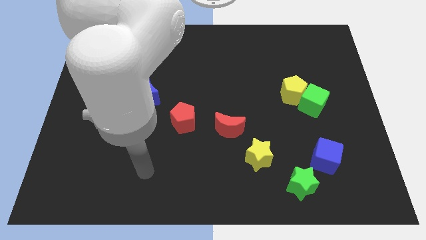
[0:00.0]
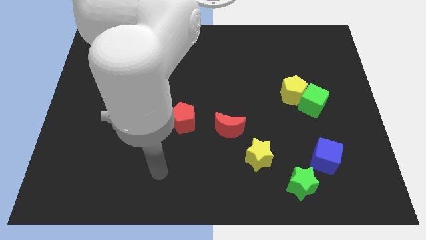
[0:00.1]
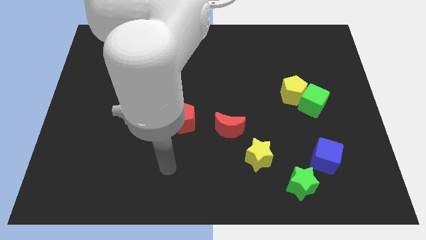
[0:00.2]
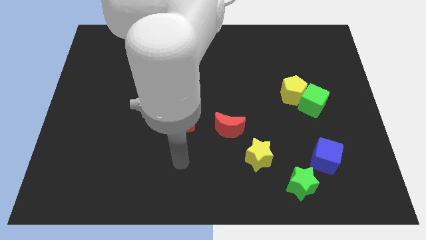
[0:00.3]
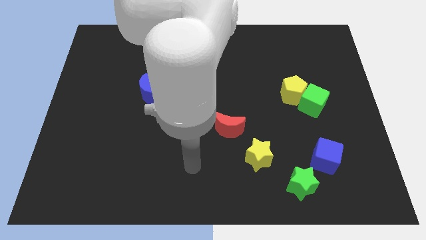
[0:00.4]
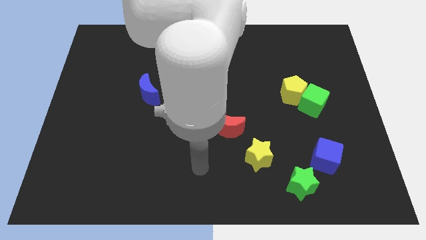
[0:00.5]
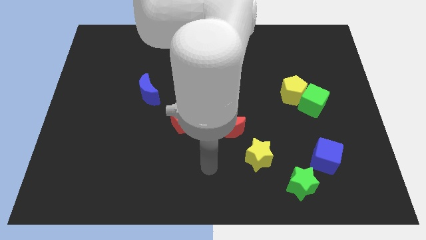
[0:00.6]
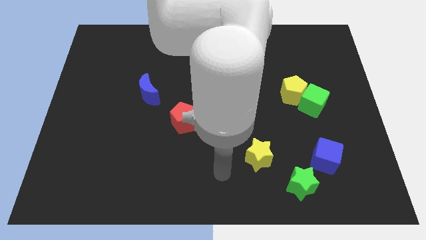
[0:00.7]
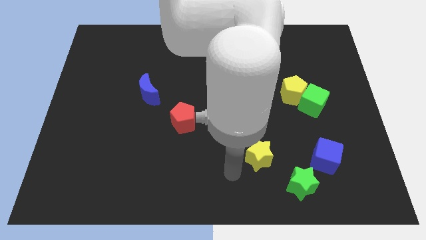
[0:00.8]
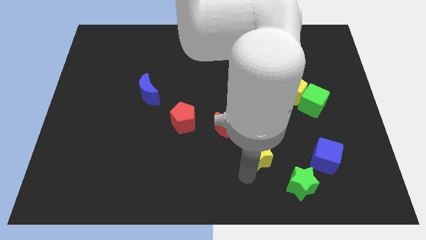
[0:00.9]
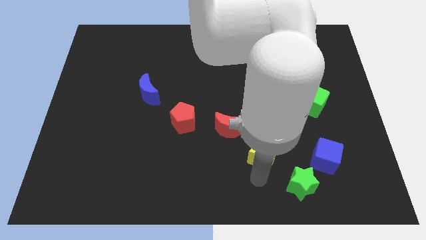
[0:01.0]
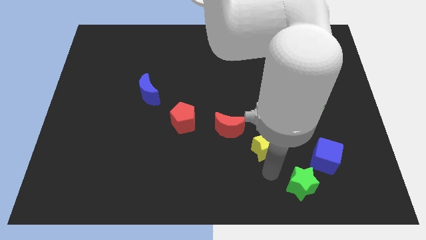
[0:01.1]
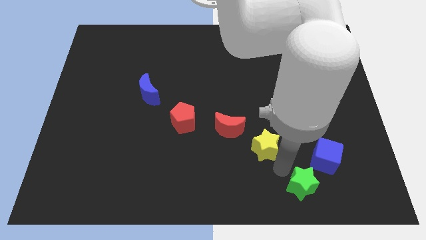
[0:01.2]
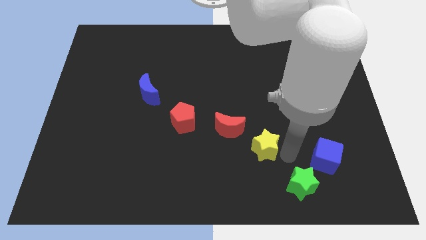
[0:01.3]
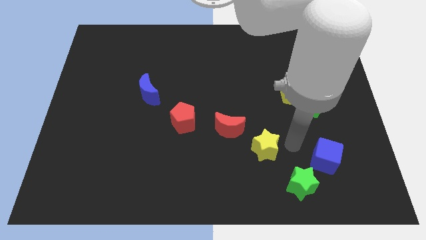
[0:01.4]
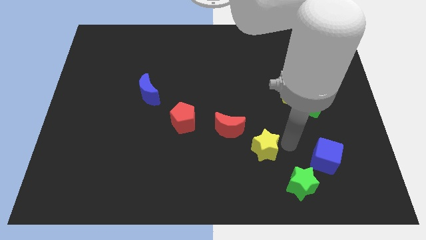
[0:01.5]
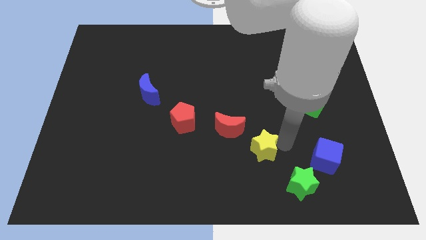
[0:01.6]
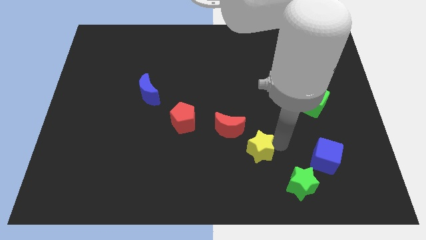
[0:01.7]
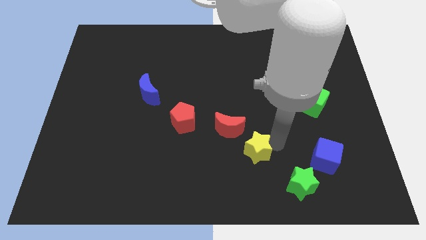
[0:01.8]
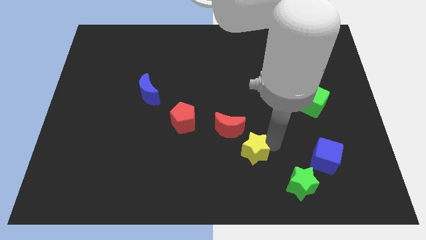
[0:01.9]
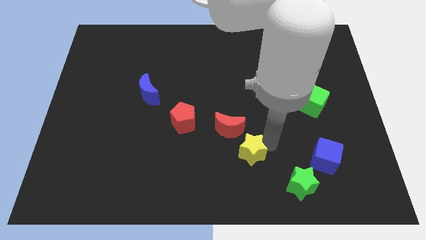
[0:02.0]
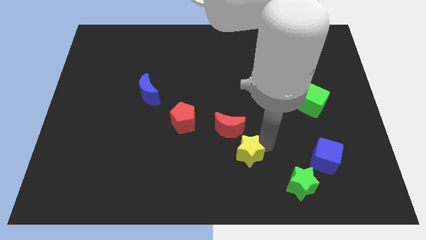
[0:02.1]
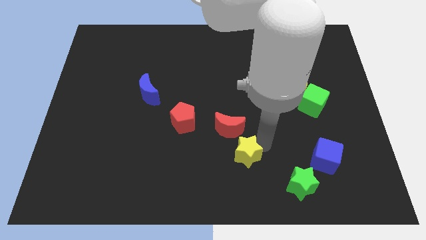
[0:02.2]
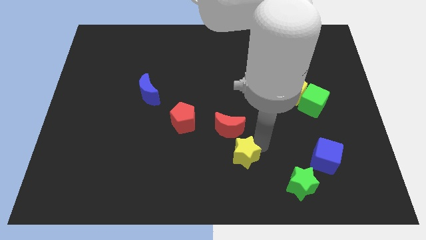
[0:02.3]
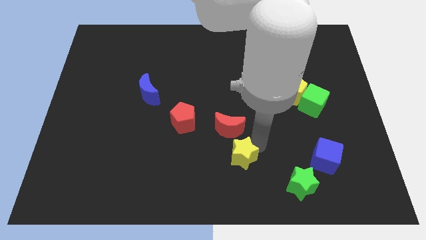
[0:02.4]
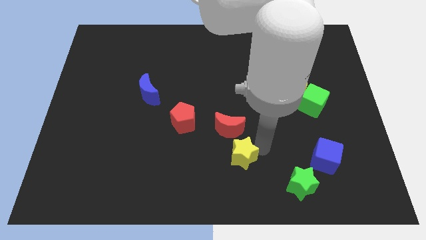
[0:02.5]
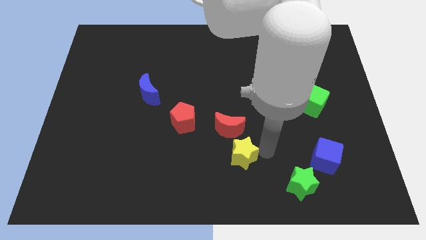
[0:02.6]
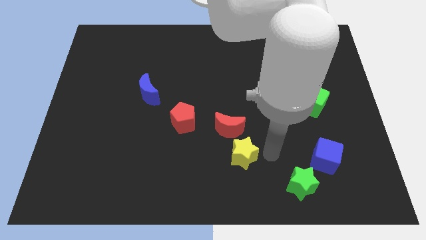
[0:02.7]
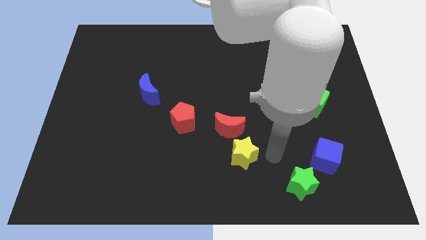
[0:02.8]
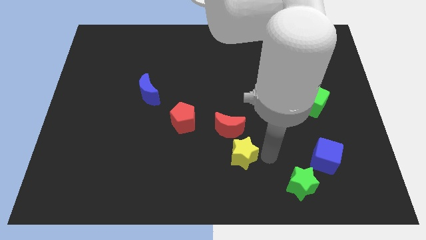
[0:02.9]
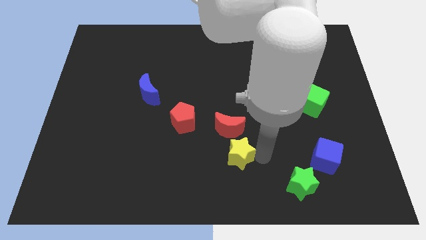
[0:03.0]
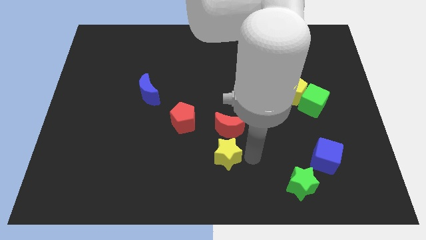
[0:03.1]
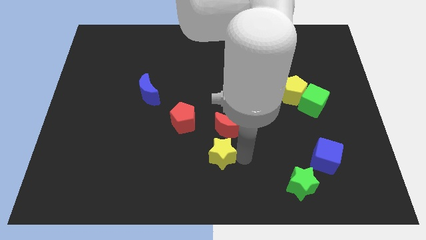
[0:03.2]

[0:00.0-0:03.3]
slightly push the yellow star to the left

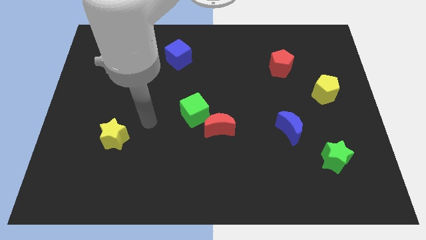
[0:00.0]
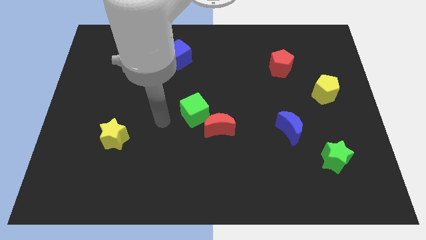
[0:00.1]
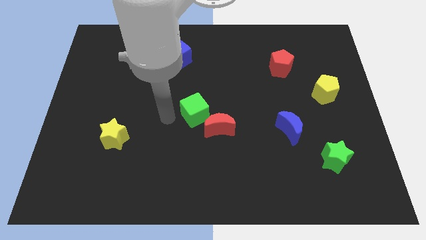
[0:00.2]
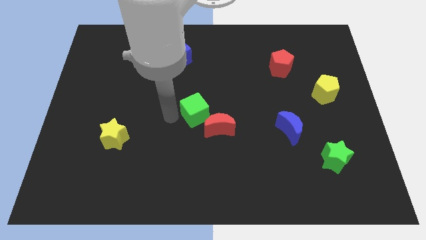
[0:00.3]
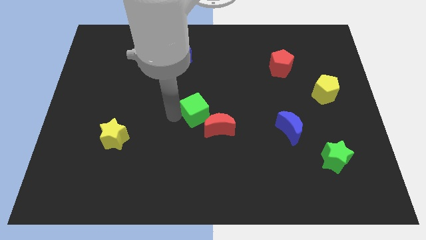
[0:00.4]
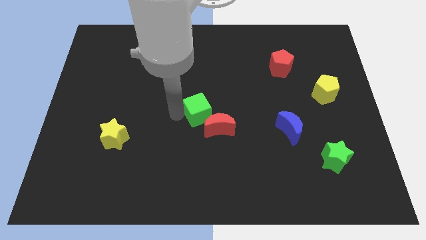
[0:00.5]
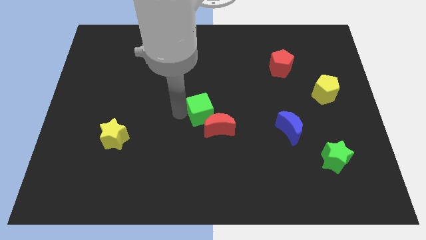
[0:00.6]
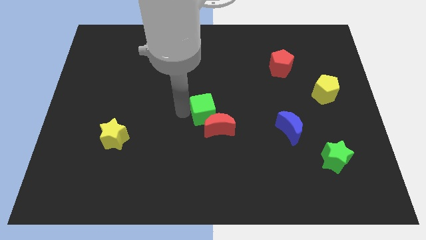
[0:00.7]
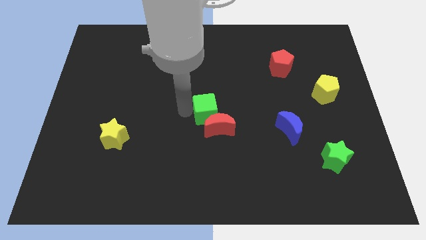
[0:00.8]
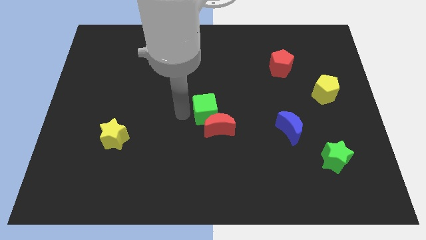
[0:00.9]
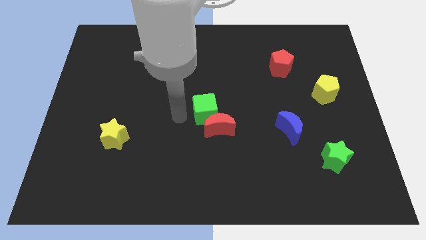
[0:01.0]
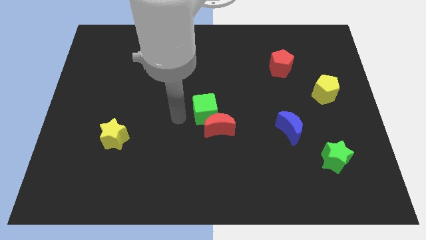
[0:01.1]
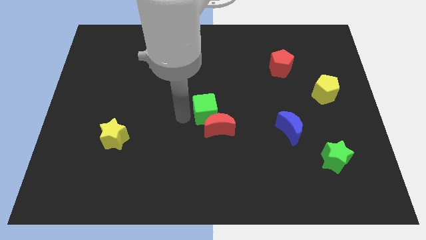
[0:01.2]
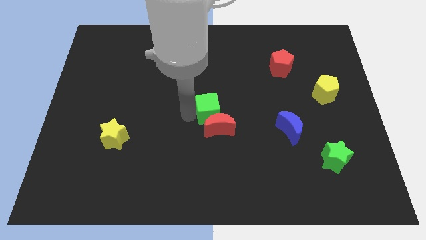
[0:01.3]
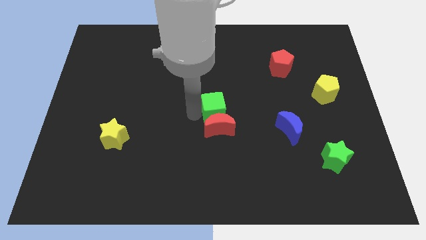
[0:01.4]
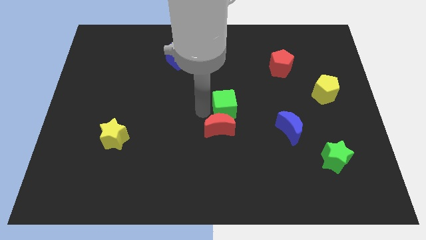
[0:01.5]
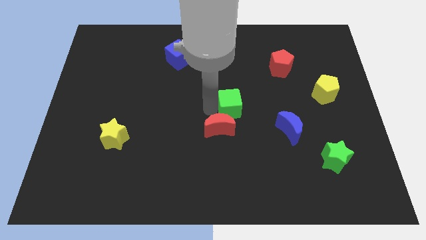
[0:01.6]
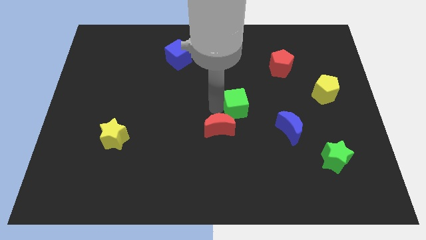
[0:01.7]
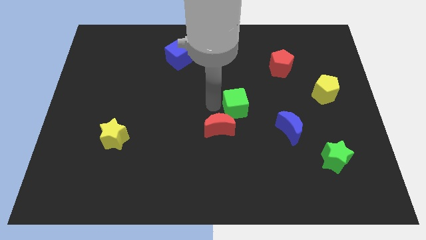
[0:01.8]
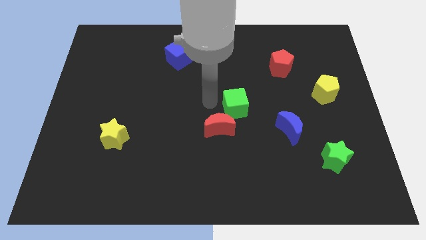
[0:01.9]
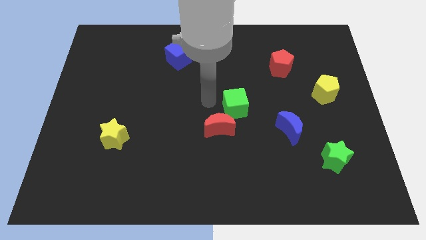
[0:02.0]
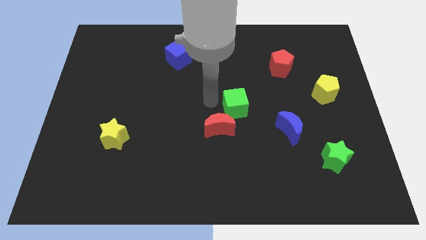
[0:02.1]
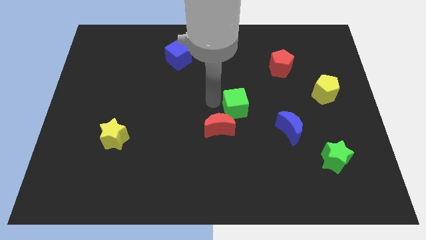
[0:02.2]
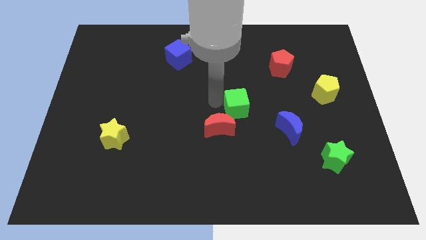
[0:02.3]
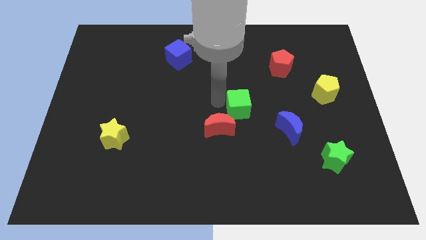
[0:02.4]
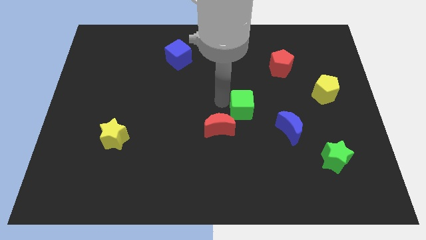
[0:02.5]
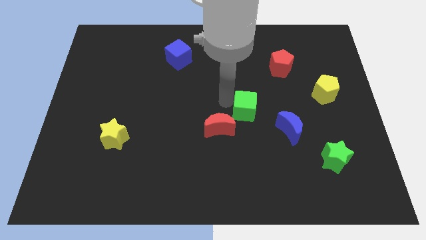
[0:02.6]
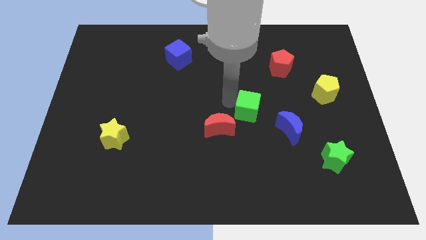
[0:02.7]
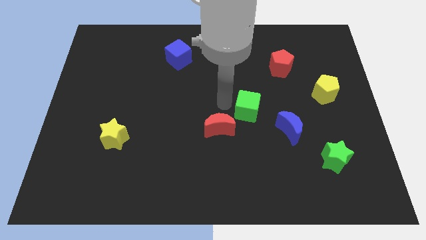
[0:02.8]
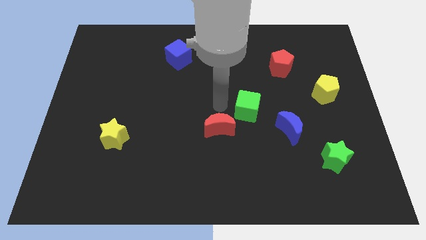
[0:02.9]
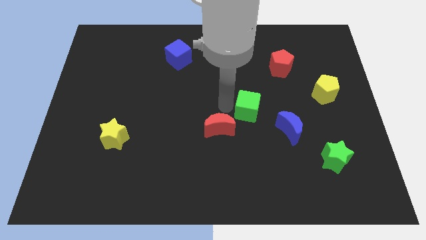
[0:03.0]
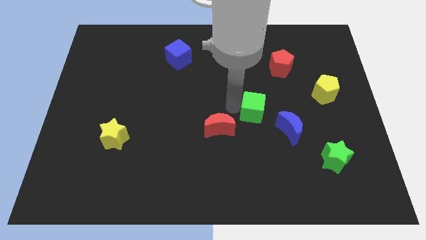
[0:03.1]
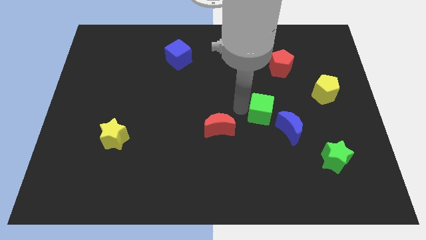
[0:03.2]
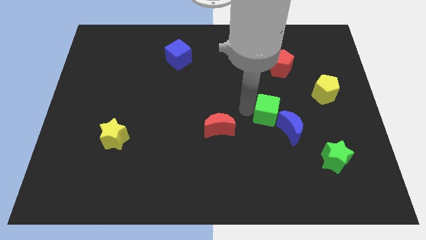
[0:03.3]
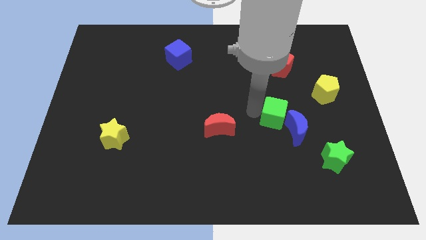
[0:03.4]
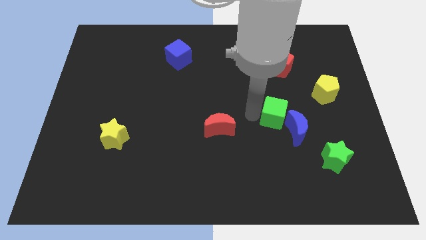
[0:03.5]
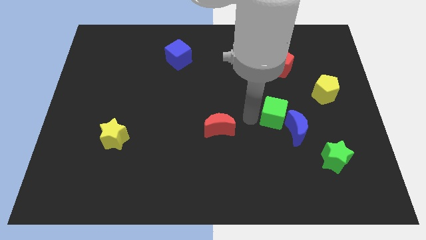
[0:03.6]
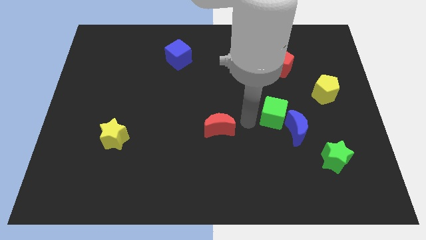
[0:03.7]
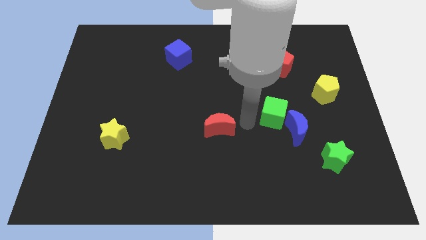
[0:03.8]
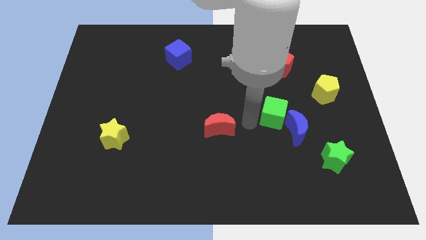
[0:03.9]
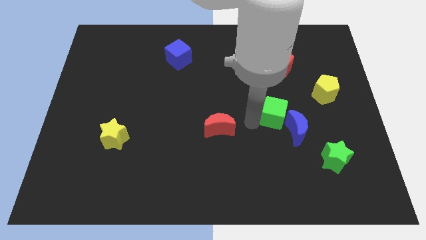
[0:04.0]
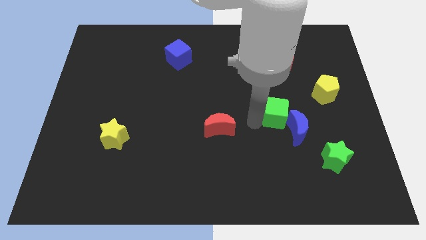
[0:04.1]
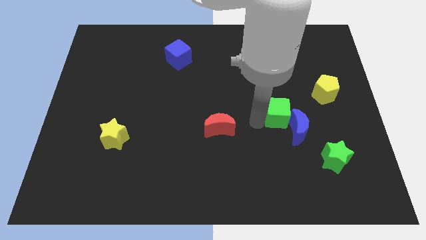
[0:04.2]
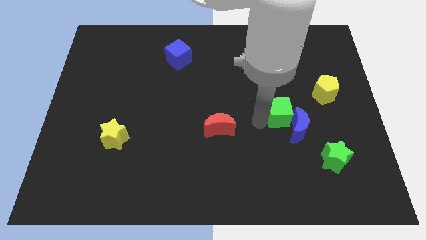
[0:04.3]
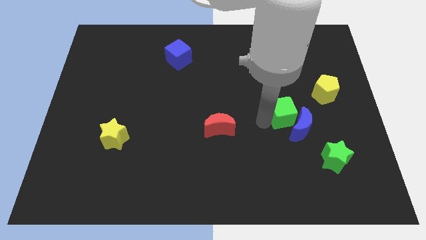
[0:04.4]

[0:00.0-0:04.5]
slide the green cube to the right

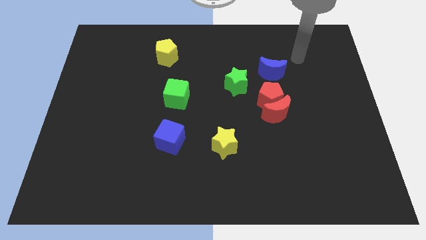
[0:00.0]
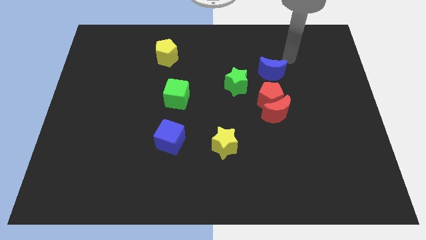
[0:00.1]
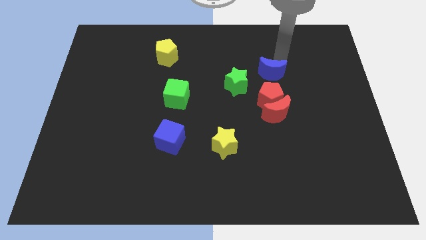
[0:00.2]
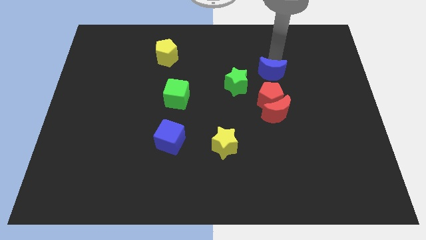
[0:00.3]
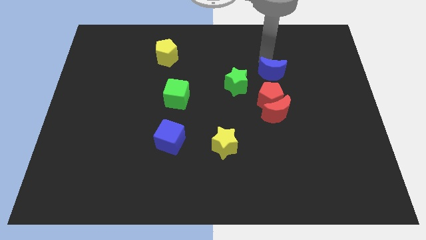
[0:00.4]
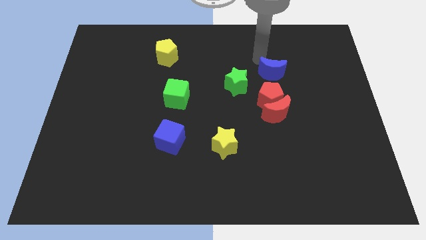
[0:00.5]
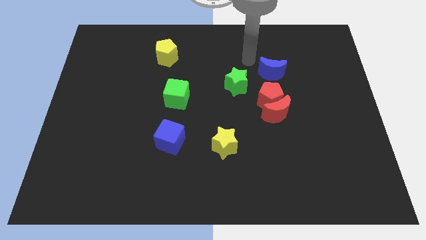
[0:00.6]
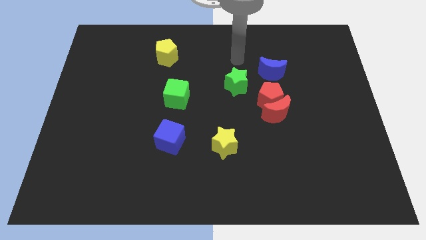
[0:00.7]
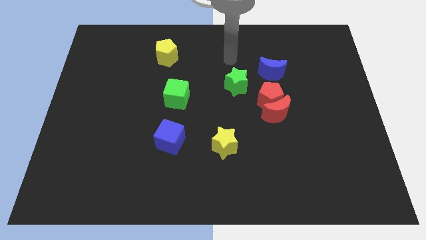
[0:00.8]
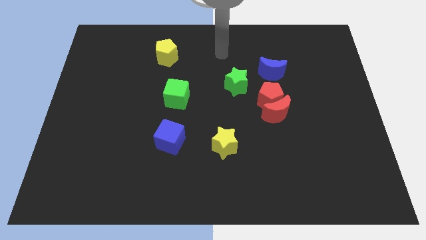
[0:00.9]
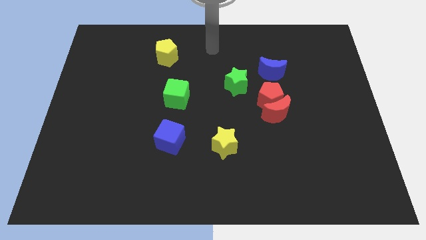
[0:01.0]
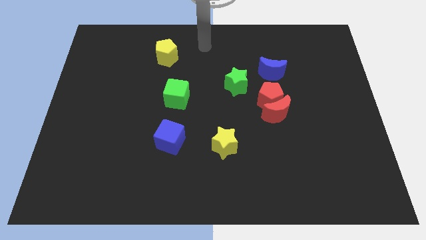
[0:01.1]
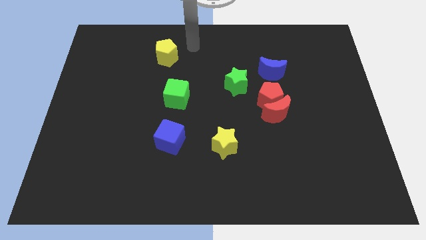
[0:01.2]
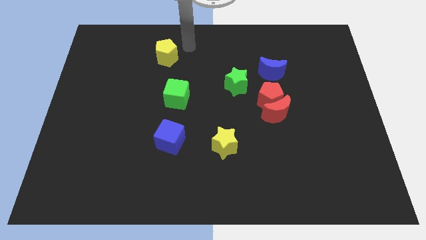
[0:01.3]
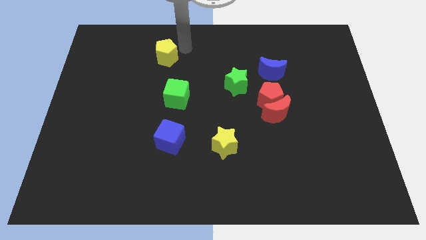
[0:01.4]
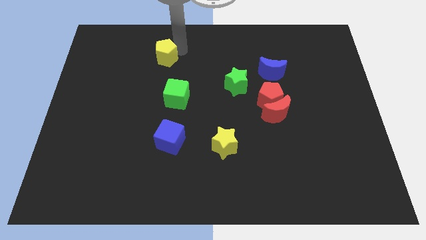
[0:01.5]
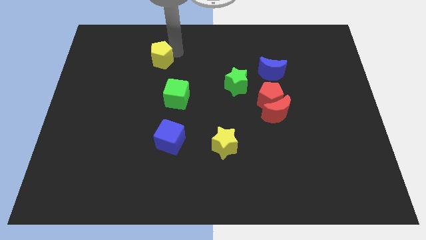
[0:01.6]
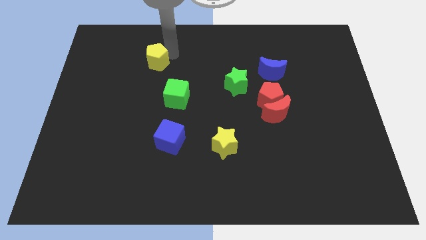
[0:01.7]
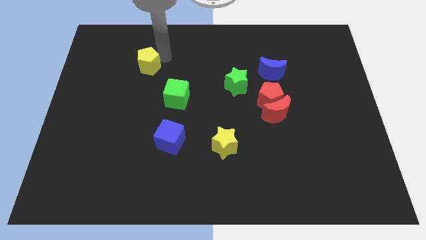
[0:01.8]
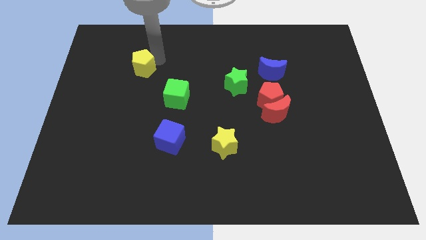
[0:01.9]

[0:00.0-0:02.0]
move the yellow pentagon a bit down and left diagonally
